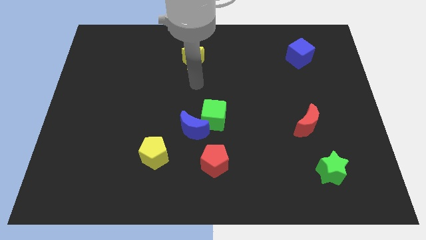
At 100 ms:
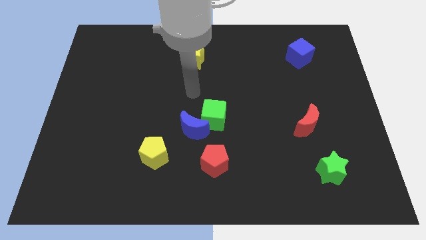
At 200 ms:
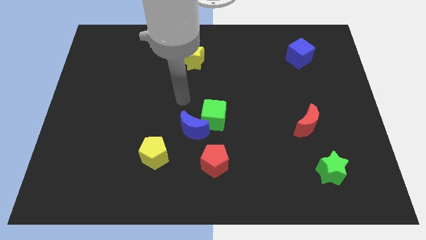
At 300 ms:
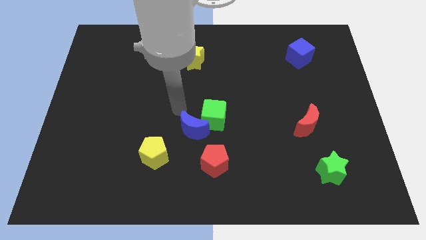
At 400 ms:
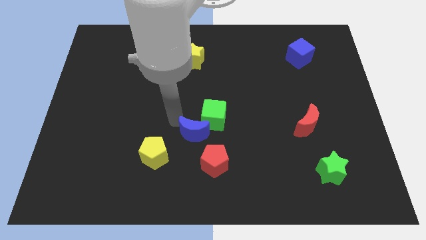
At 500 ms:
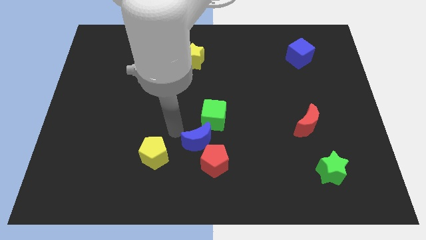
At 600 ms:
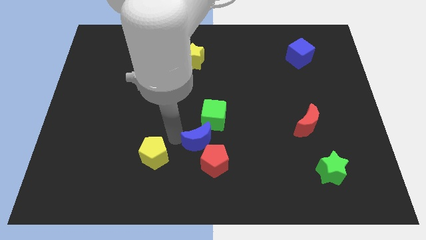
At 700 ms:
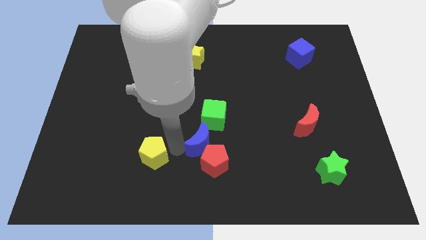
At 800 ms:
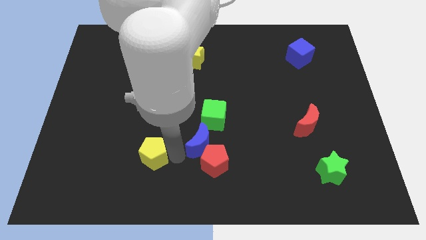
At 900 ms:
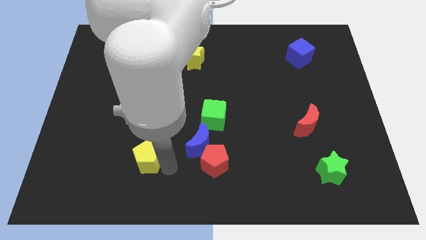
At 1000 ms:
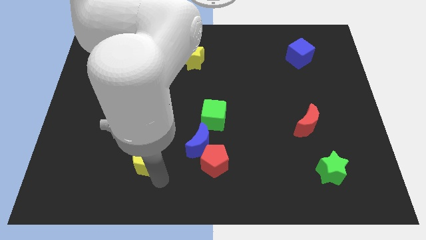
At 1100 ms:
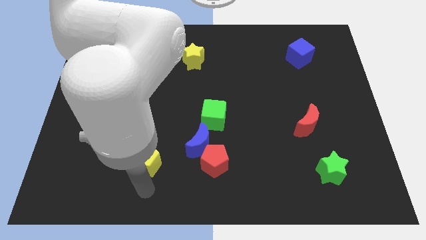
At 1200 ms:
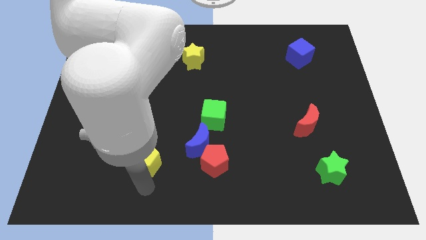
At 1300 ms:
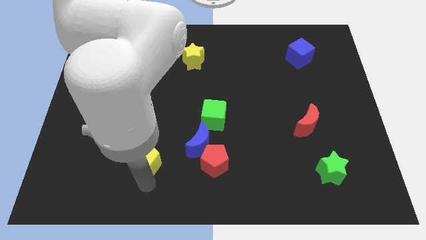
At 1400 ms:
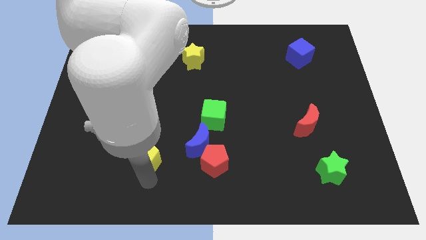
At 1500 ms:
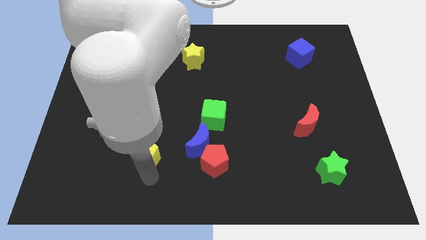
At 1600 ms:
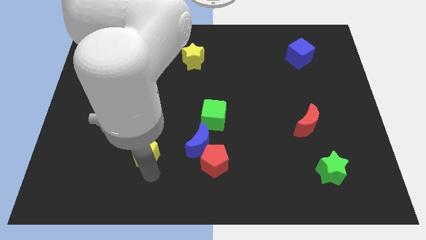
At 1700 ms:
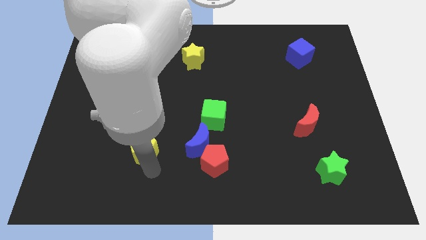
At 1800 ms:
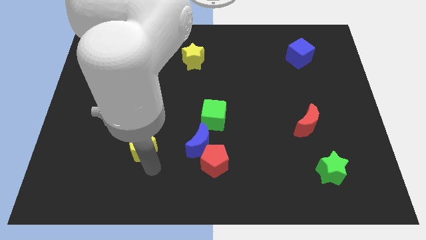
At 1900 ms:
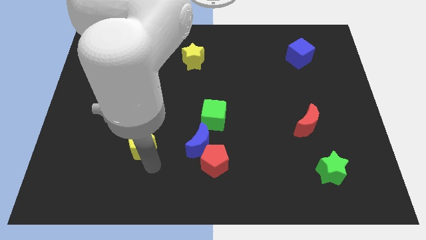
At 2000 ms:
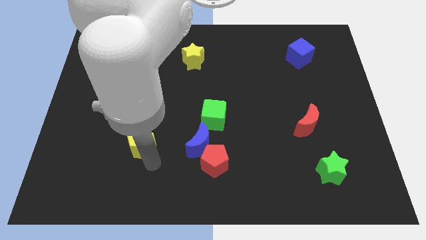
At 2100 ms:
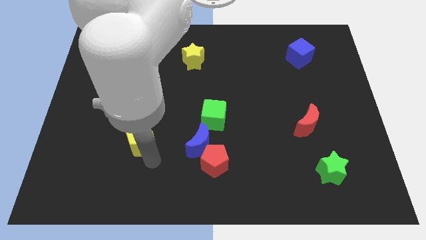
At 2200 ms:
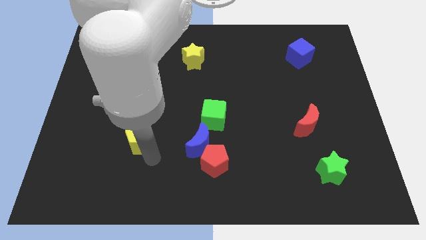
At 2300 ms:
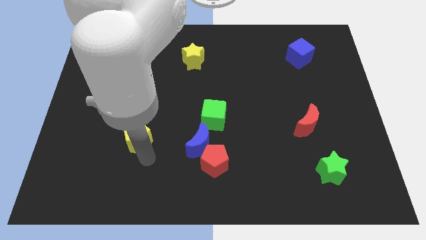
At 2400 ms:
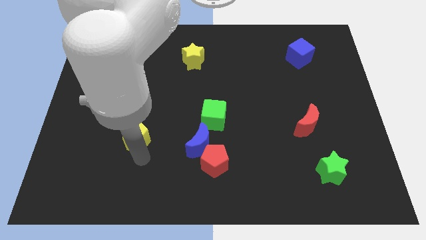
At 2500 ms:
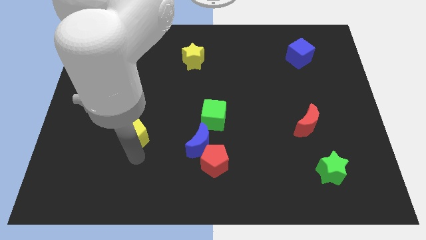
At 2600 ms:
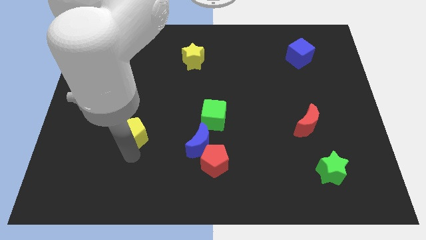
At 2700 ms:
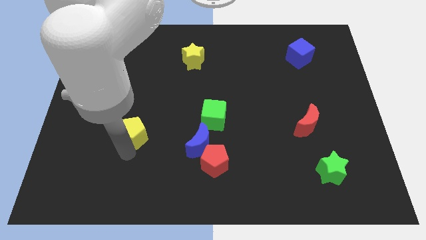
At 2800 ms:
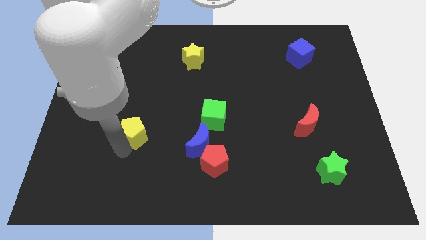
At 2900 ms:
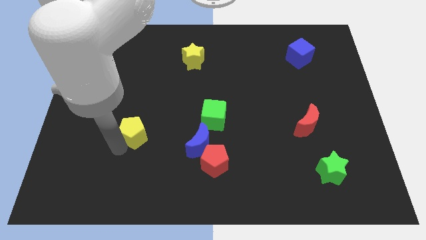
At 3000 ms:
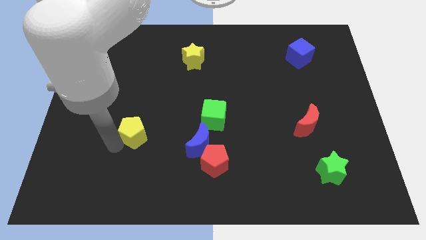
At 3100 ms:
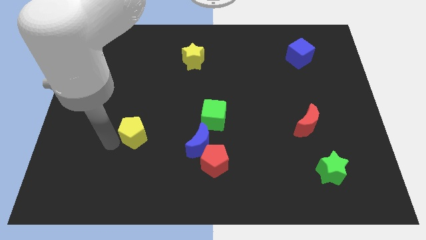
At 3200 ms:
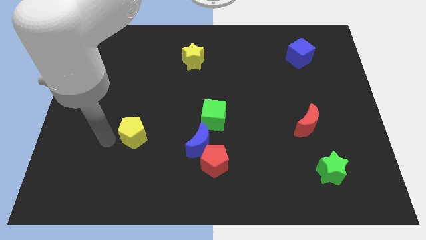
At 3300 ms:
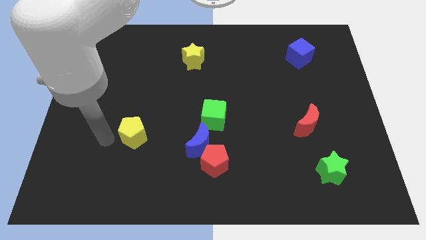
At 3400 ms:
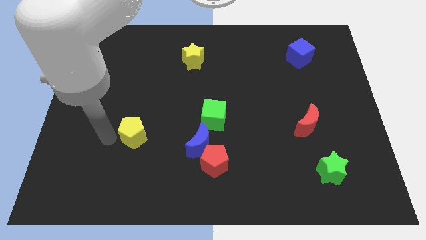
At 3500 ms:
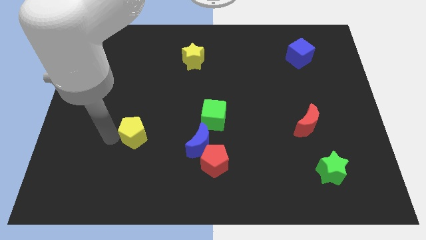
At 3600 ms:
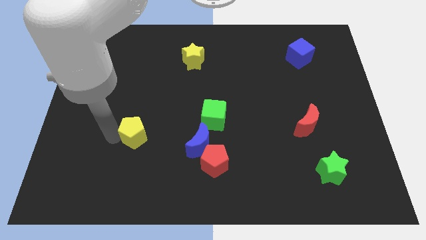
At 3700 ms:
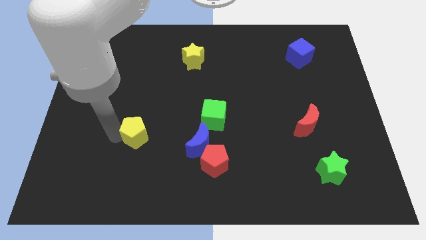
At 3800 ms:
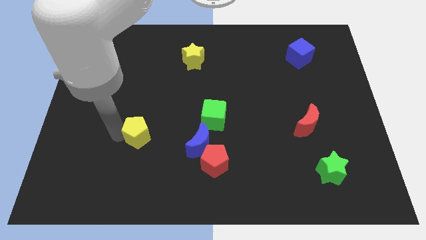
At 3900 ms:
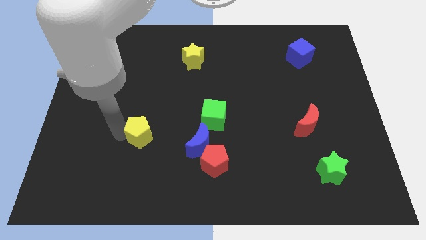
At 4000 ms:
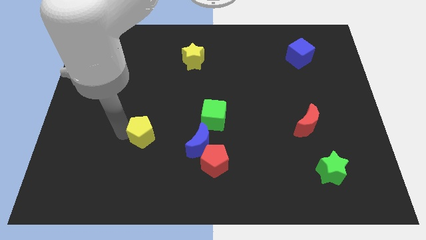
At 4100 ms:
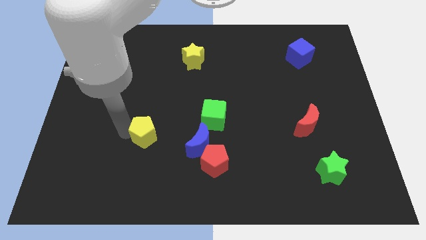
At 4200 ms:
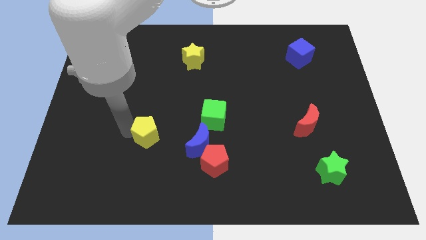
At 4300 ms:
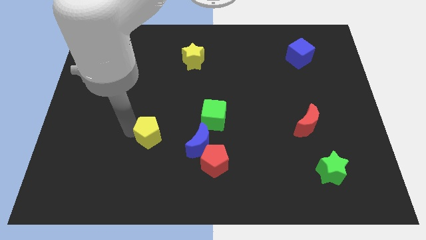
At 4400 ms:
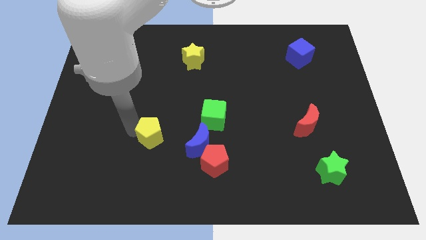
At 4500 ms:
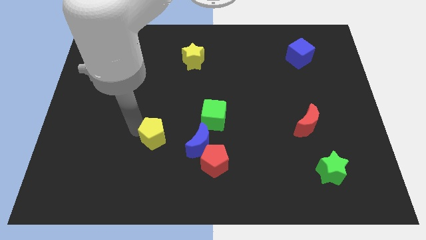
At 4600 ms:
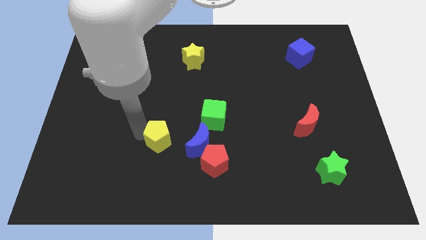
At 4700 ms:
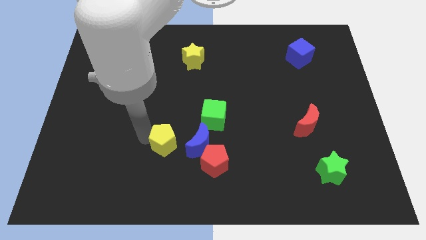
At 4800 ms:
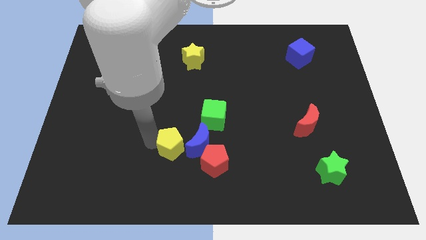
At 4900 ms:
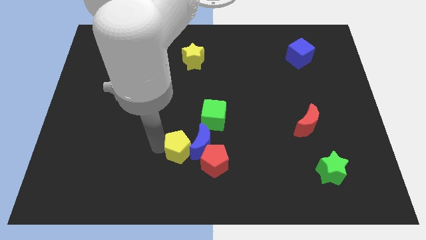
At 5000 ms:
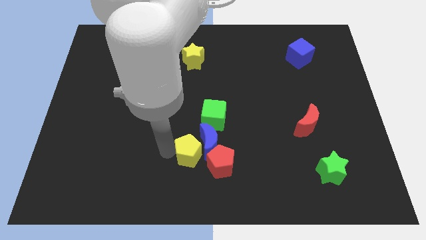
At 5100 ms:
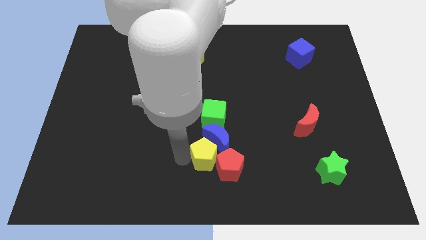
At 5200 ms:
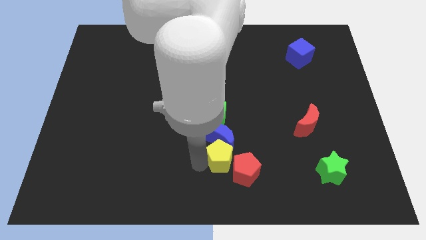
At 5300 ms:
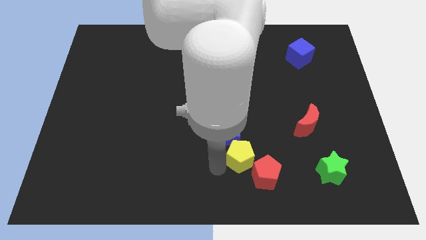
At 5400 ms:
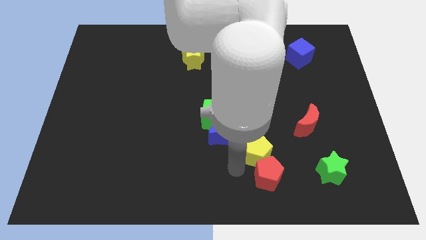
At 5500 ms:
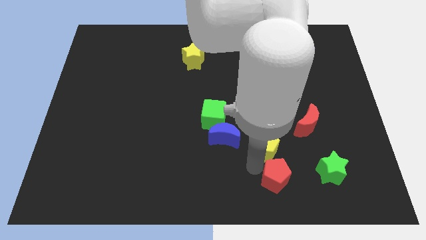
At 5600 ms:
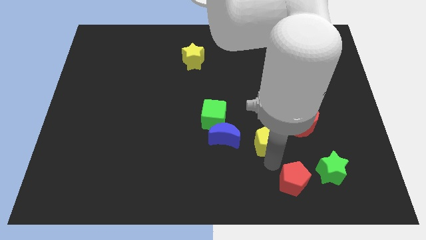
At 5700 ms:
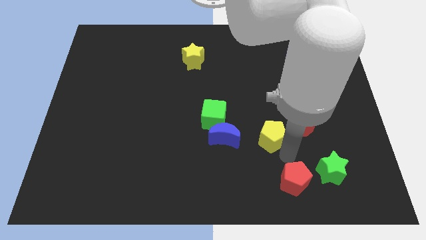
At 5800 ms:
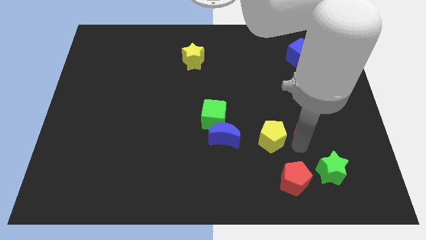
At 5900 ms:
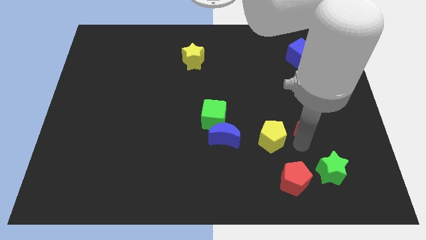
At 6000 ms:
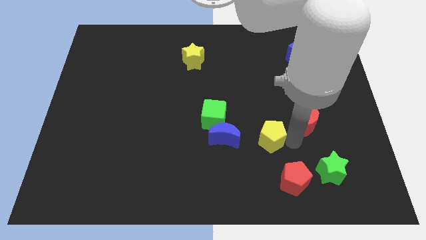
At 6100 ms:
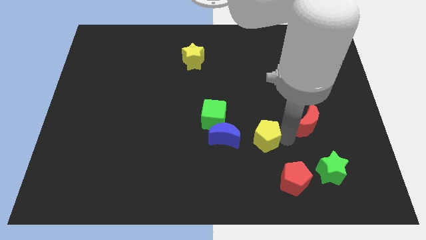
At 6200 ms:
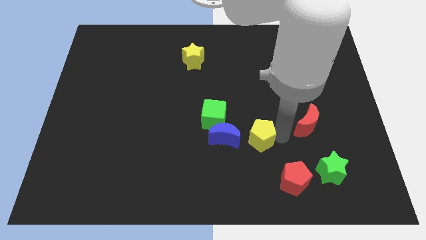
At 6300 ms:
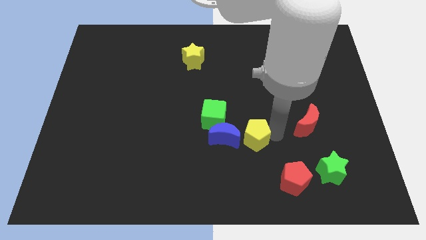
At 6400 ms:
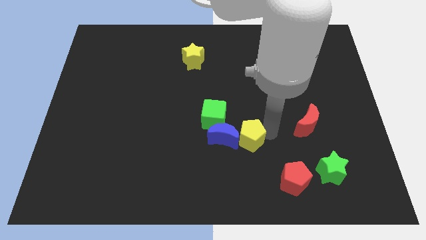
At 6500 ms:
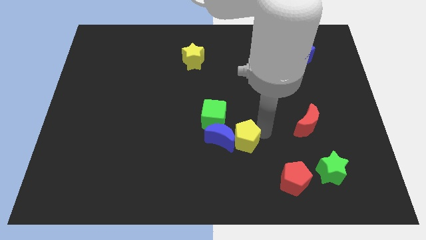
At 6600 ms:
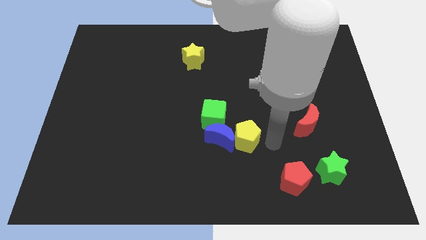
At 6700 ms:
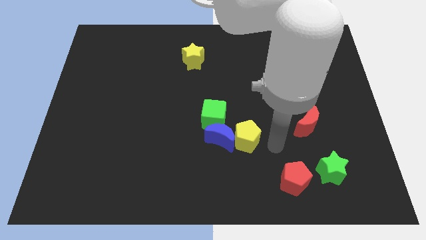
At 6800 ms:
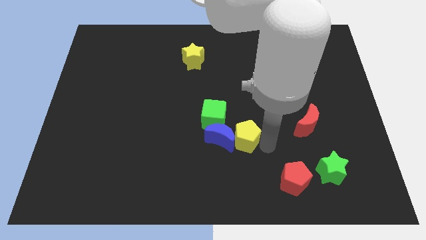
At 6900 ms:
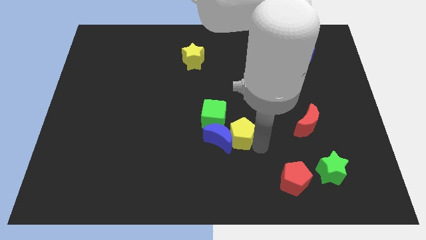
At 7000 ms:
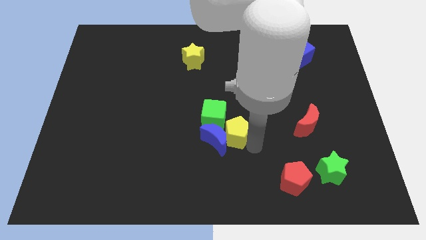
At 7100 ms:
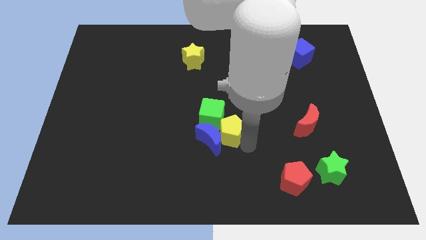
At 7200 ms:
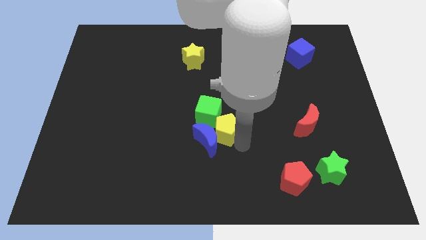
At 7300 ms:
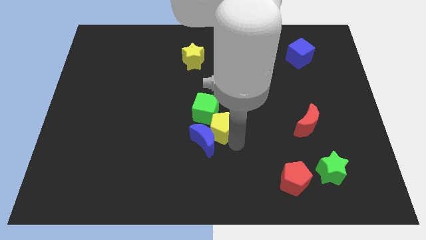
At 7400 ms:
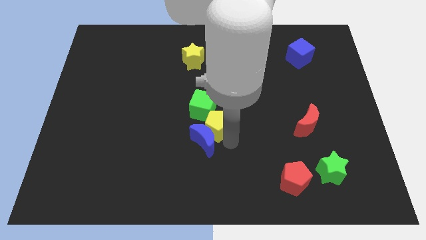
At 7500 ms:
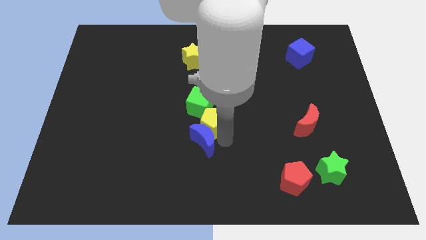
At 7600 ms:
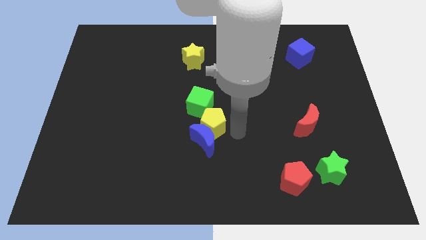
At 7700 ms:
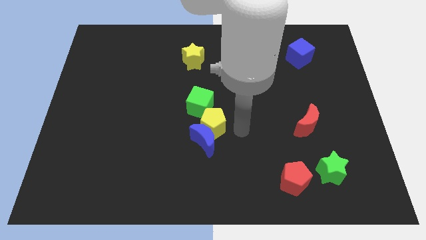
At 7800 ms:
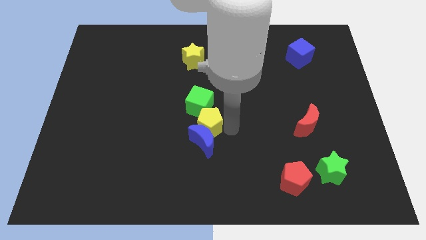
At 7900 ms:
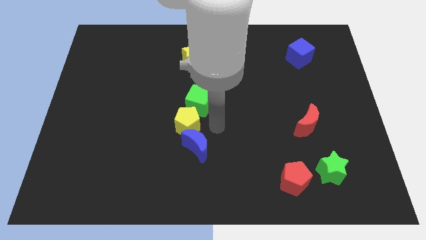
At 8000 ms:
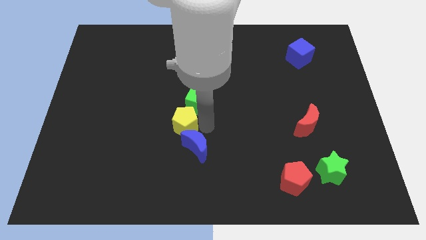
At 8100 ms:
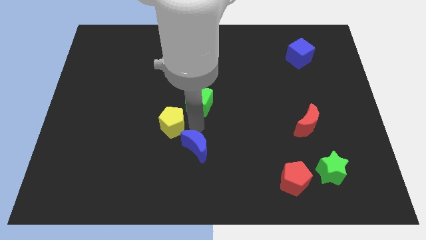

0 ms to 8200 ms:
move the yellow pentagon a little up
